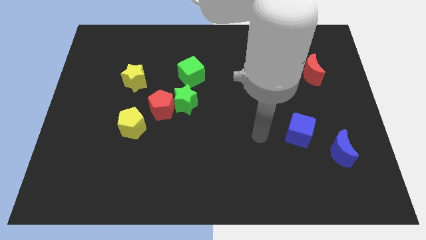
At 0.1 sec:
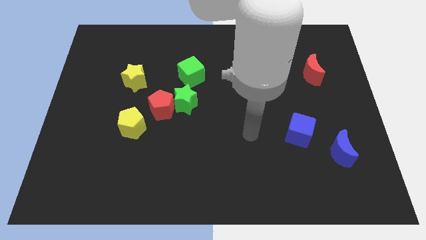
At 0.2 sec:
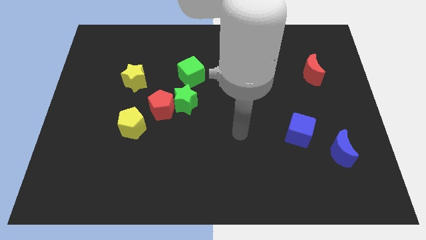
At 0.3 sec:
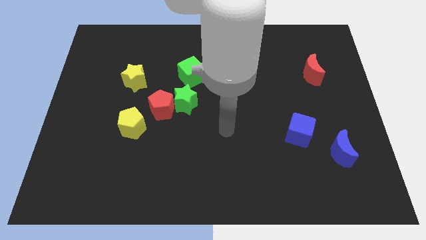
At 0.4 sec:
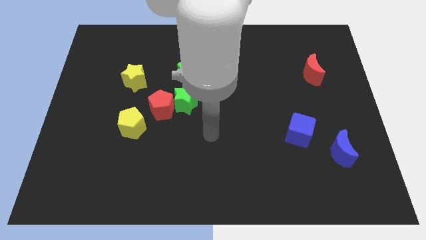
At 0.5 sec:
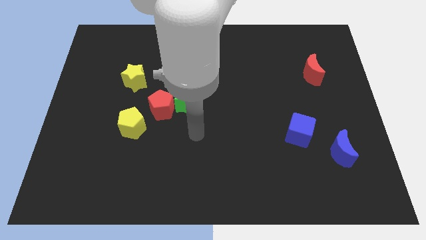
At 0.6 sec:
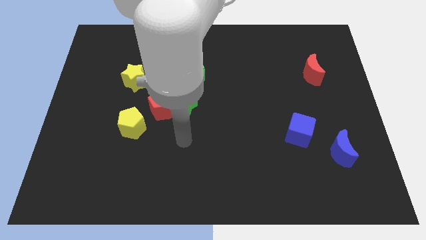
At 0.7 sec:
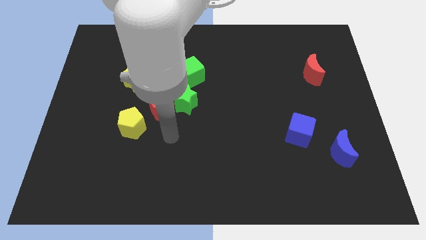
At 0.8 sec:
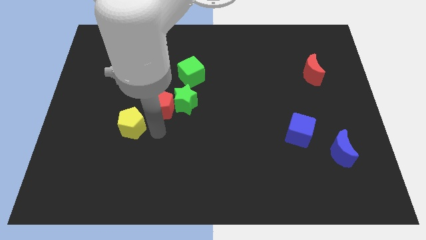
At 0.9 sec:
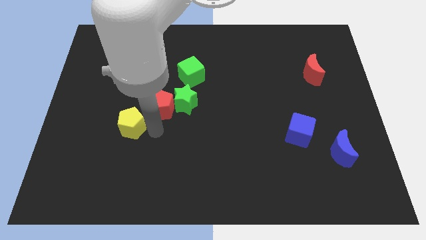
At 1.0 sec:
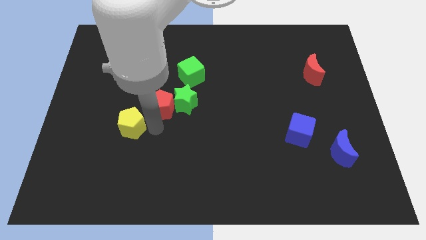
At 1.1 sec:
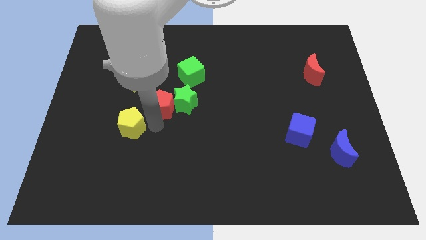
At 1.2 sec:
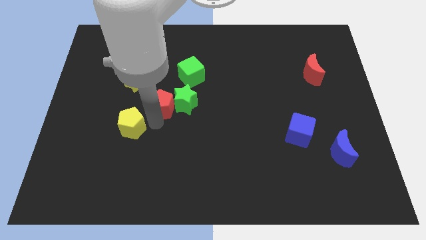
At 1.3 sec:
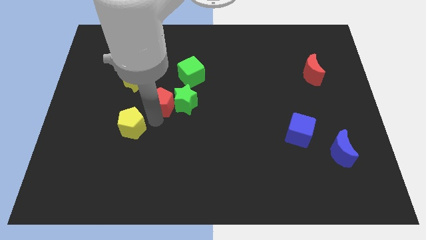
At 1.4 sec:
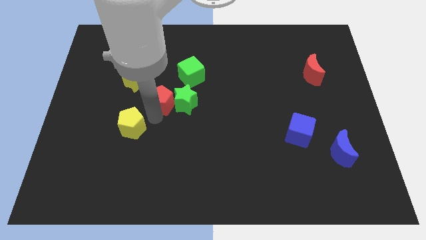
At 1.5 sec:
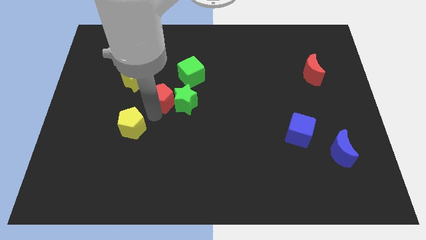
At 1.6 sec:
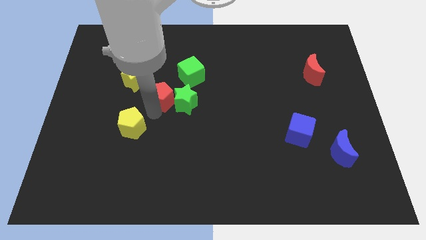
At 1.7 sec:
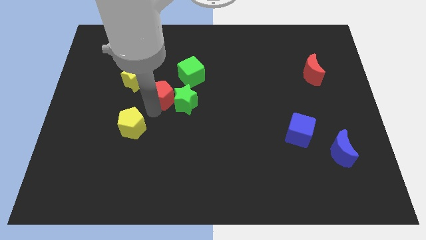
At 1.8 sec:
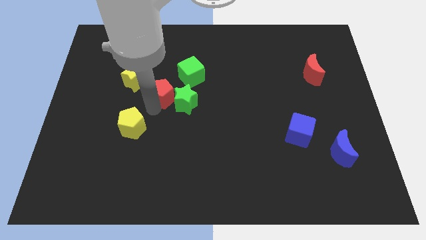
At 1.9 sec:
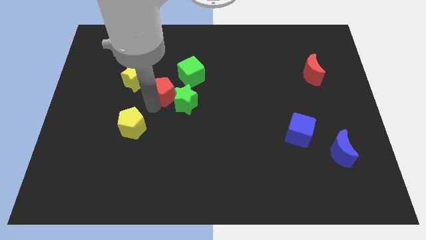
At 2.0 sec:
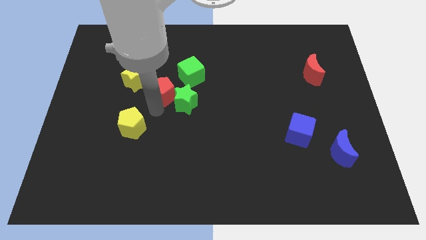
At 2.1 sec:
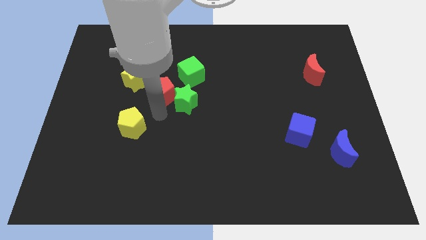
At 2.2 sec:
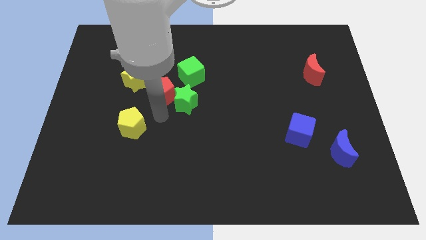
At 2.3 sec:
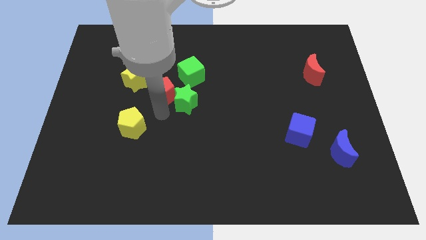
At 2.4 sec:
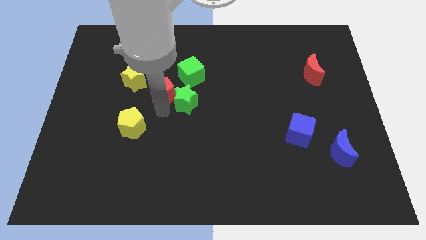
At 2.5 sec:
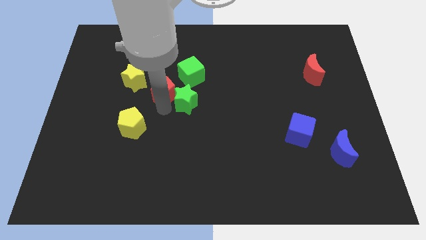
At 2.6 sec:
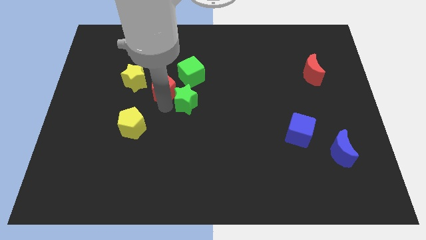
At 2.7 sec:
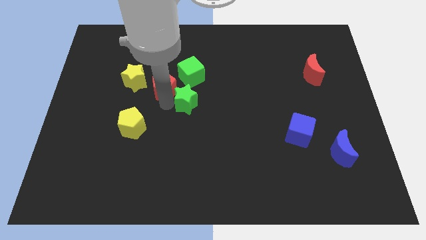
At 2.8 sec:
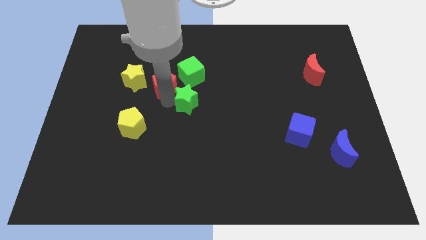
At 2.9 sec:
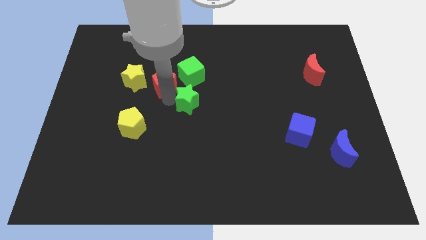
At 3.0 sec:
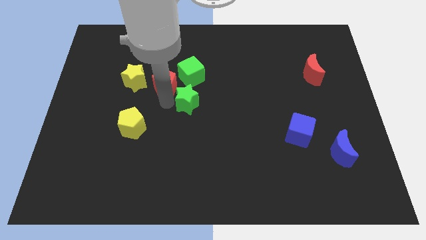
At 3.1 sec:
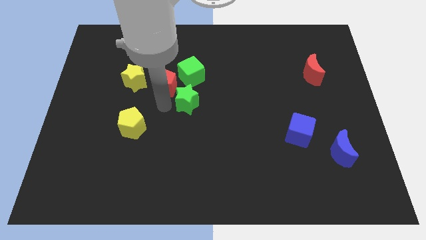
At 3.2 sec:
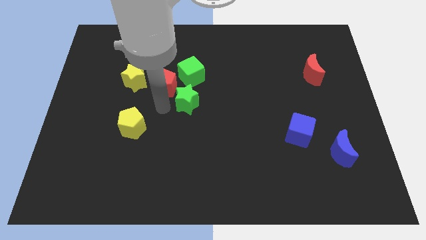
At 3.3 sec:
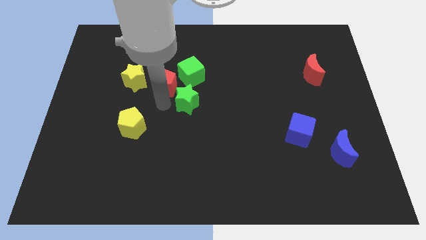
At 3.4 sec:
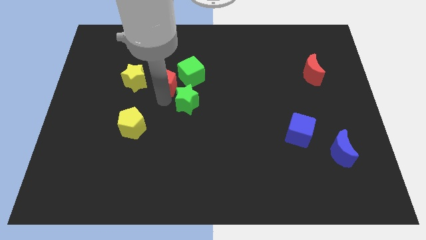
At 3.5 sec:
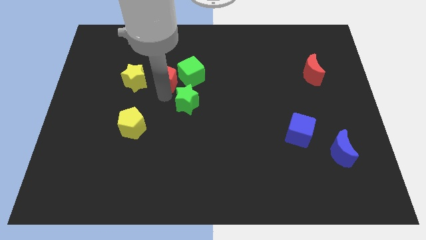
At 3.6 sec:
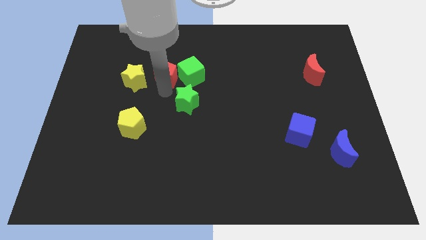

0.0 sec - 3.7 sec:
separate the red pentagon from the green star and yellow pentagon

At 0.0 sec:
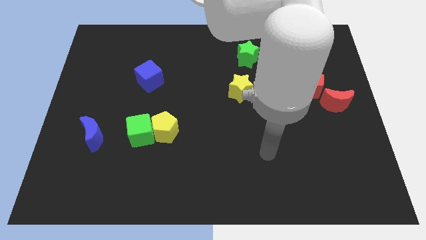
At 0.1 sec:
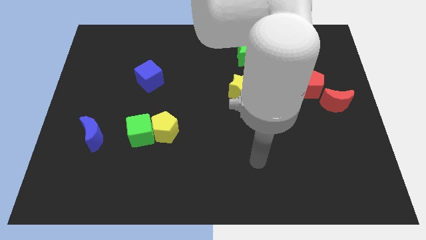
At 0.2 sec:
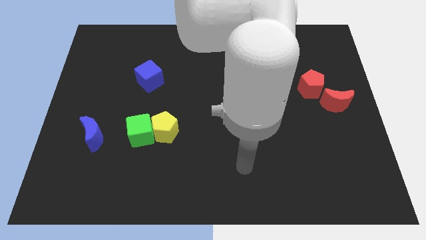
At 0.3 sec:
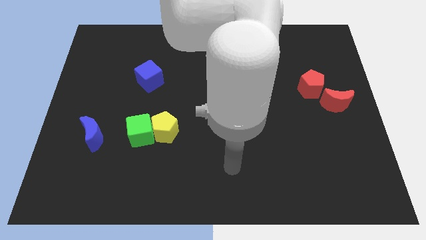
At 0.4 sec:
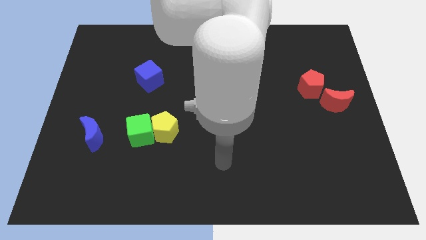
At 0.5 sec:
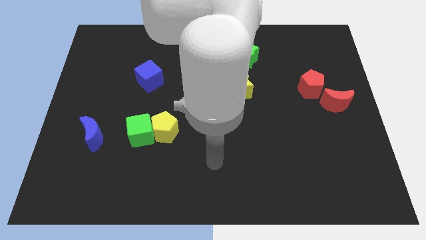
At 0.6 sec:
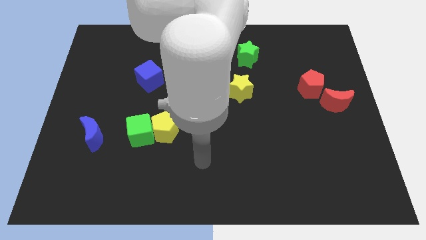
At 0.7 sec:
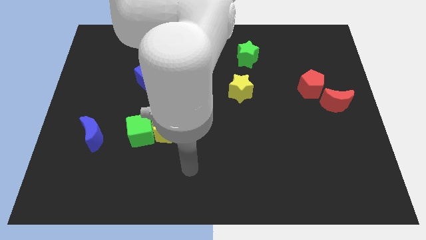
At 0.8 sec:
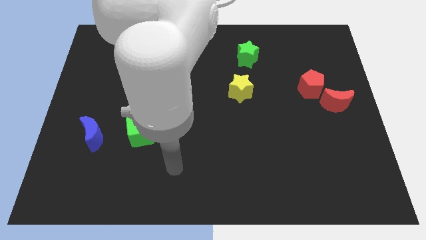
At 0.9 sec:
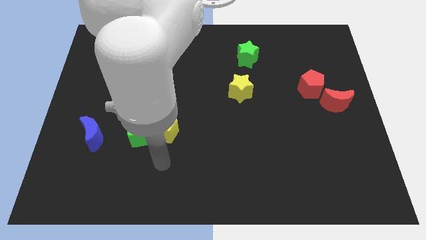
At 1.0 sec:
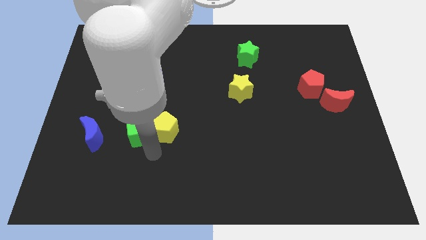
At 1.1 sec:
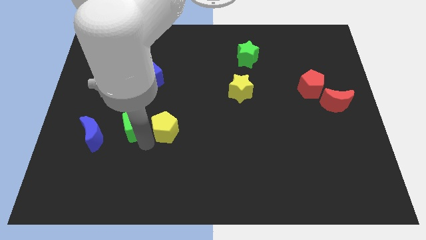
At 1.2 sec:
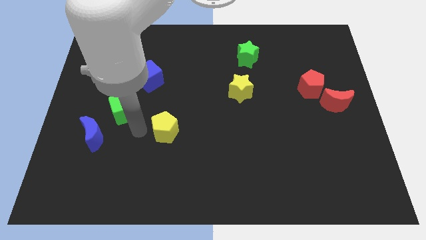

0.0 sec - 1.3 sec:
move the yellow pentagon away from the green cube

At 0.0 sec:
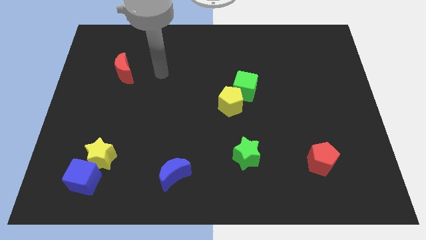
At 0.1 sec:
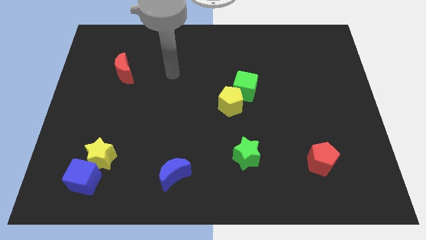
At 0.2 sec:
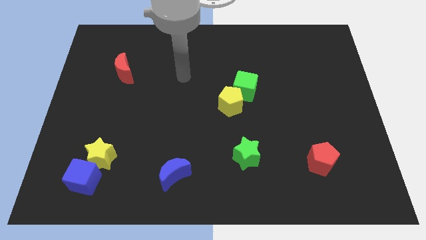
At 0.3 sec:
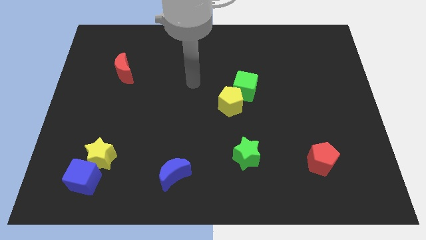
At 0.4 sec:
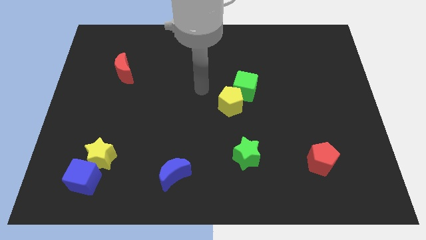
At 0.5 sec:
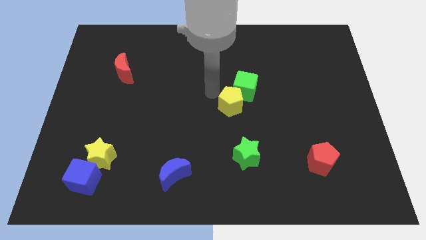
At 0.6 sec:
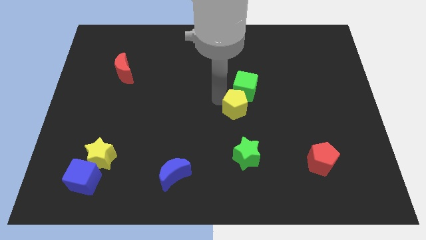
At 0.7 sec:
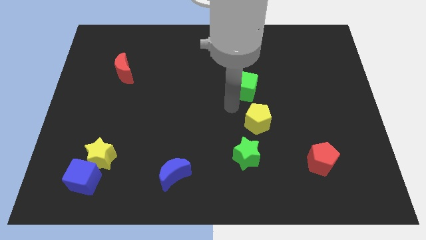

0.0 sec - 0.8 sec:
separate the green cube from the yellow pentagon

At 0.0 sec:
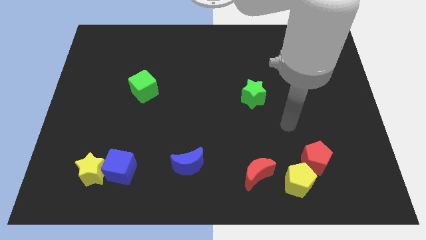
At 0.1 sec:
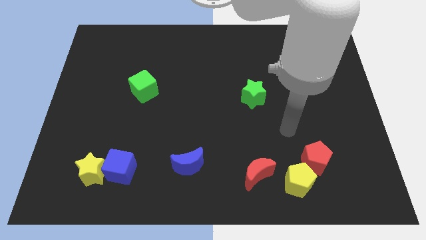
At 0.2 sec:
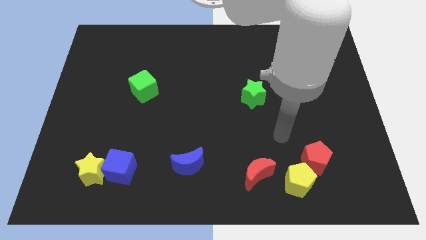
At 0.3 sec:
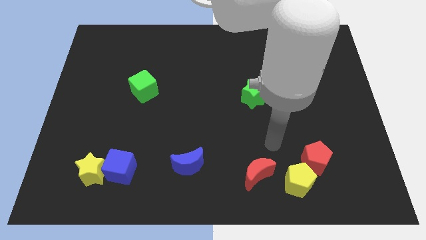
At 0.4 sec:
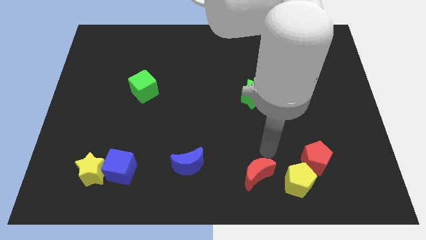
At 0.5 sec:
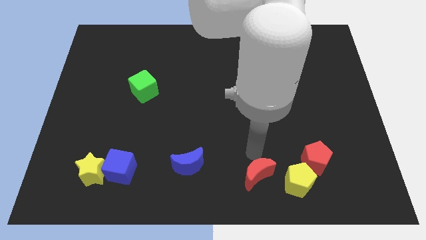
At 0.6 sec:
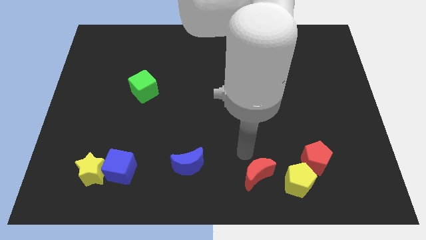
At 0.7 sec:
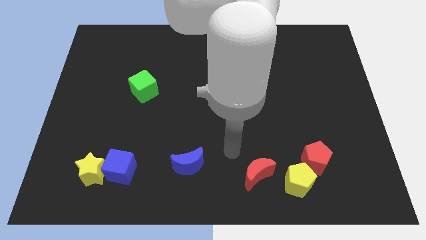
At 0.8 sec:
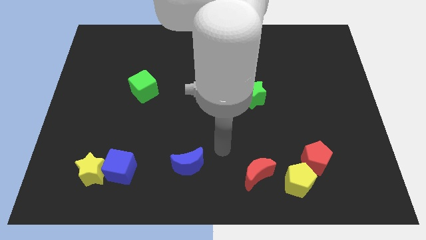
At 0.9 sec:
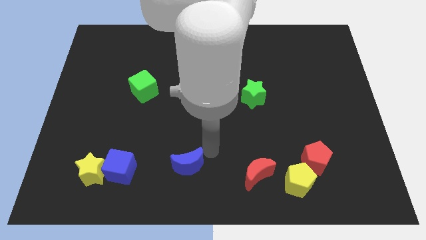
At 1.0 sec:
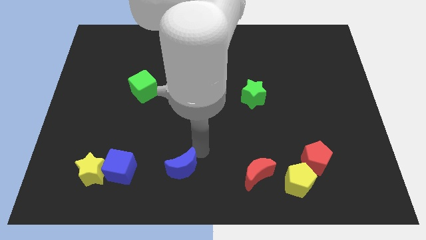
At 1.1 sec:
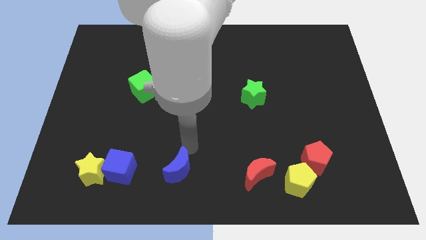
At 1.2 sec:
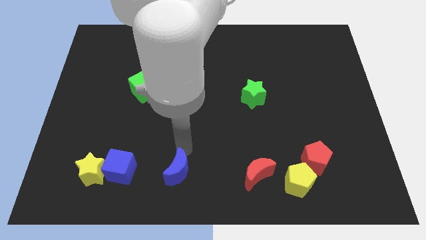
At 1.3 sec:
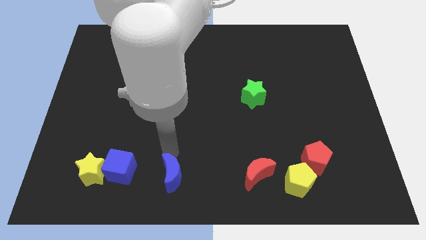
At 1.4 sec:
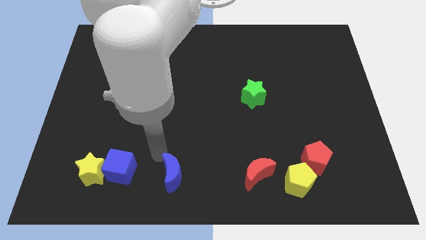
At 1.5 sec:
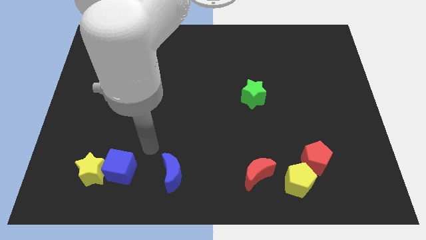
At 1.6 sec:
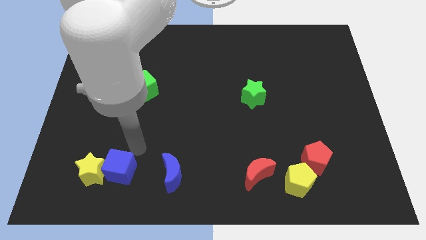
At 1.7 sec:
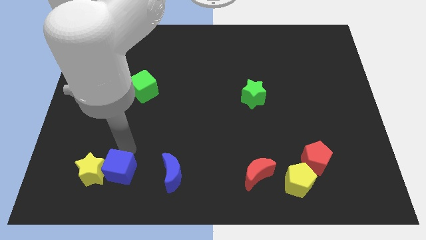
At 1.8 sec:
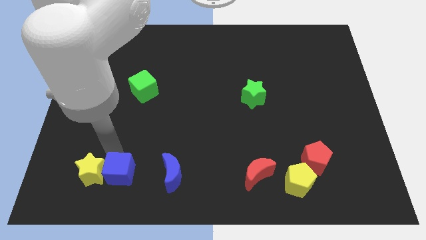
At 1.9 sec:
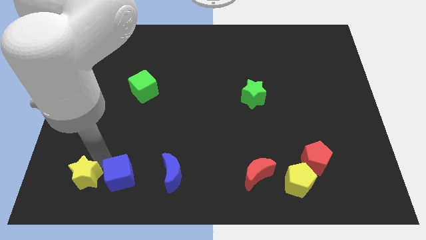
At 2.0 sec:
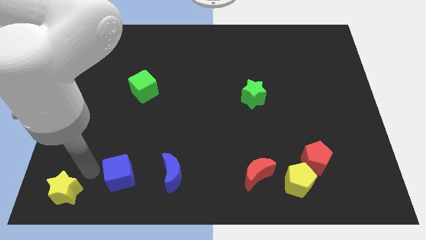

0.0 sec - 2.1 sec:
pull the blue cube apart from the yellow star

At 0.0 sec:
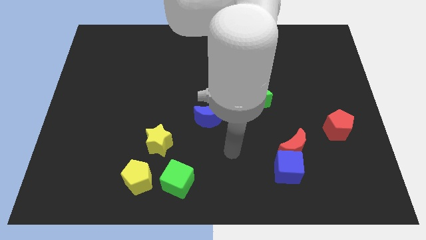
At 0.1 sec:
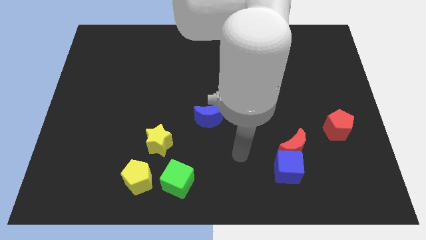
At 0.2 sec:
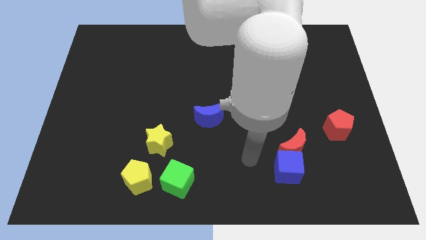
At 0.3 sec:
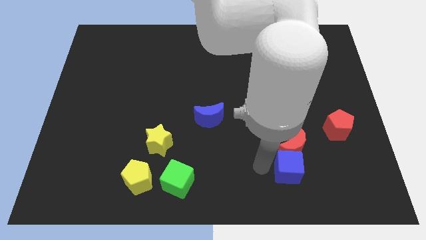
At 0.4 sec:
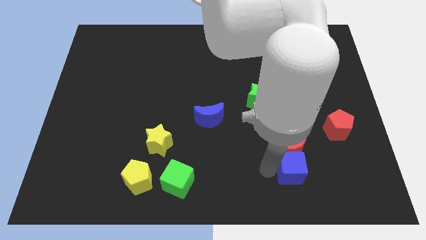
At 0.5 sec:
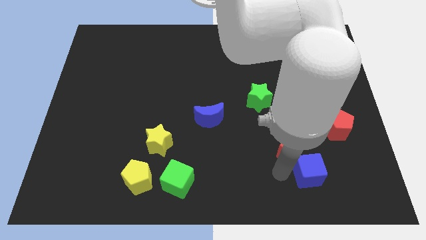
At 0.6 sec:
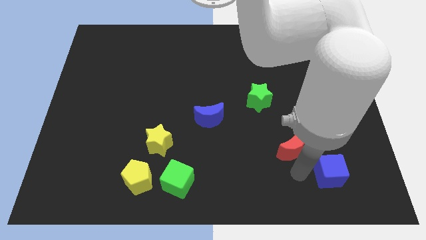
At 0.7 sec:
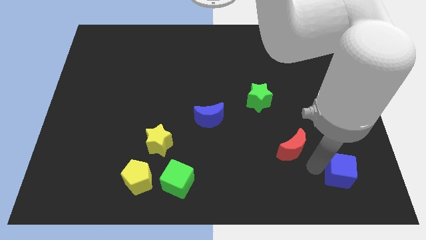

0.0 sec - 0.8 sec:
pull the red moon apart from the blue cube

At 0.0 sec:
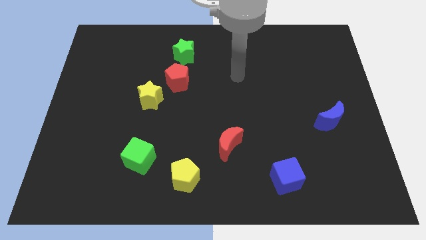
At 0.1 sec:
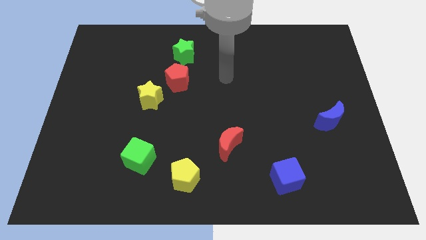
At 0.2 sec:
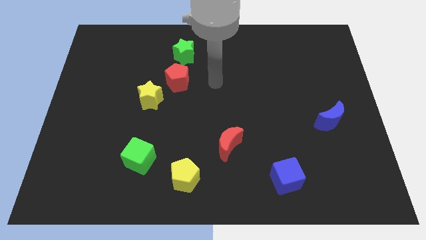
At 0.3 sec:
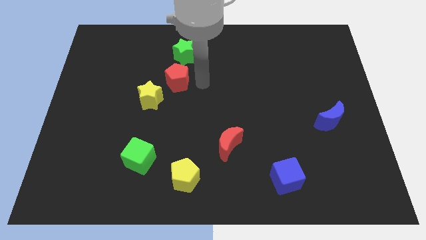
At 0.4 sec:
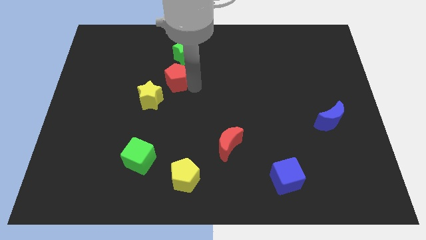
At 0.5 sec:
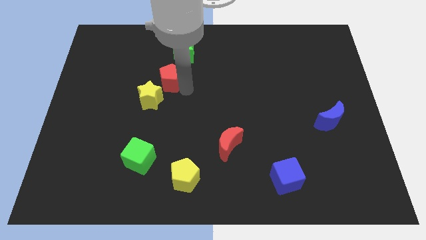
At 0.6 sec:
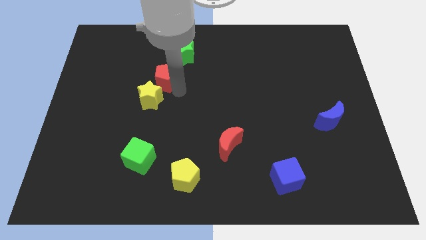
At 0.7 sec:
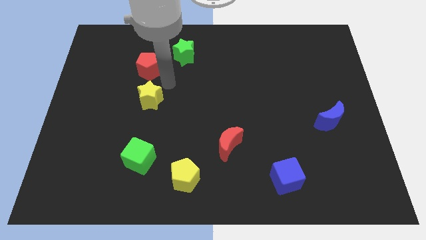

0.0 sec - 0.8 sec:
separate the yellow star from the red pentagon
